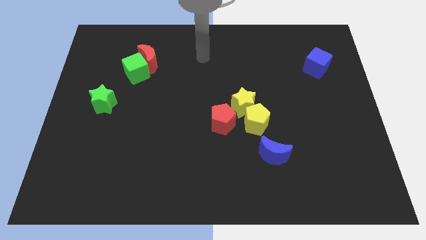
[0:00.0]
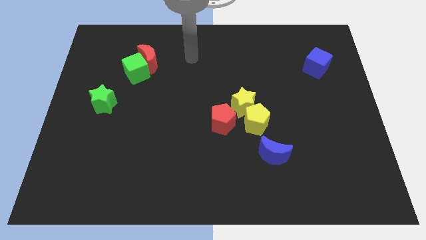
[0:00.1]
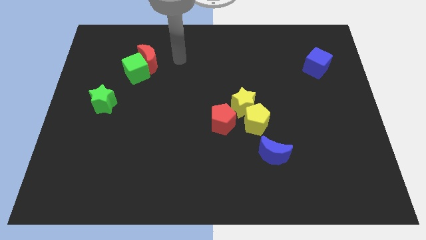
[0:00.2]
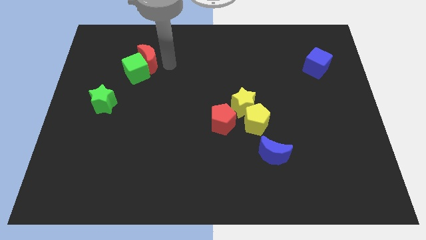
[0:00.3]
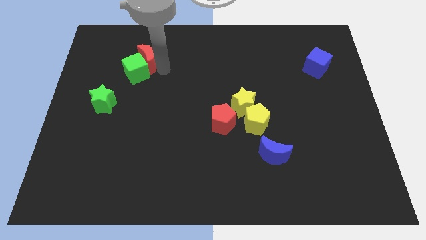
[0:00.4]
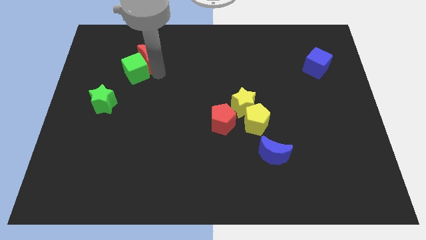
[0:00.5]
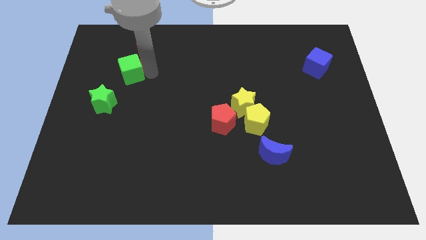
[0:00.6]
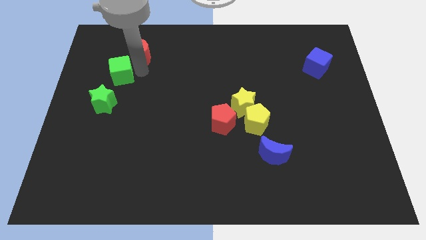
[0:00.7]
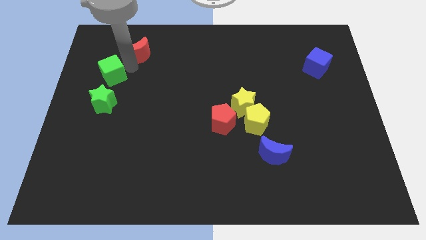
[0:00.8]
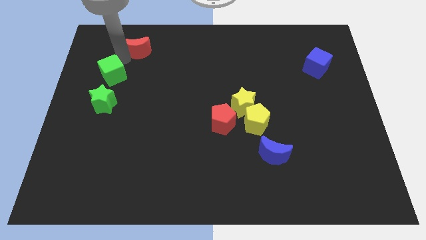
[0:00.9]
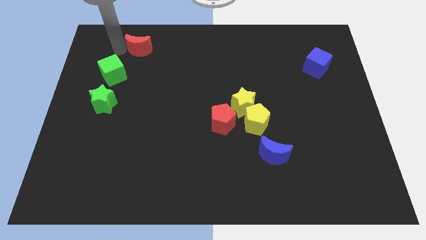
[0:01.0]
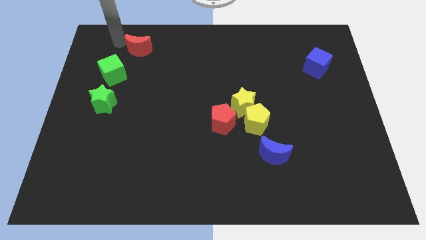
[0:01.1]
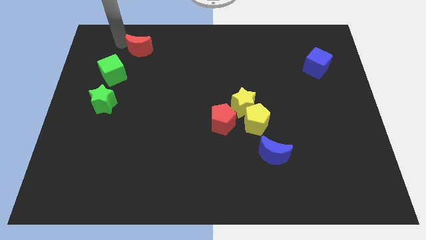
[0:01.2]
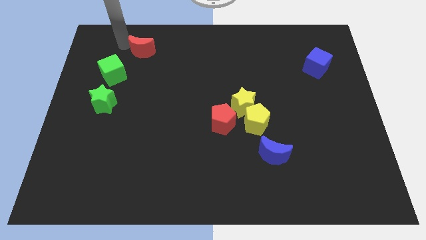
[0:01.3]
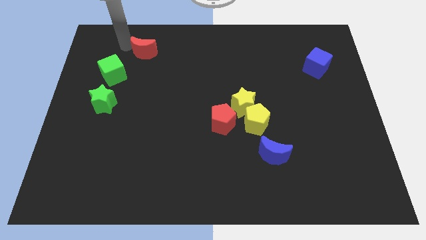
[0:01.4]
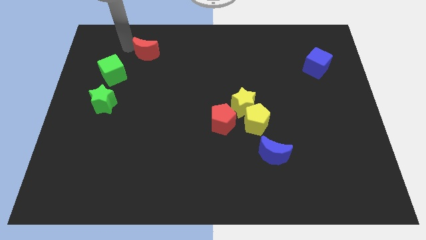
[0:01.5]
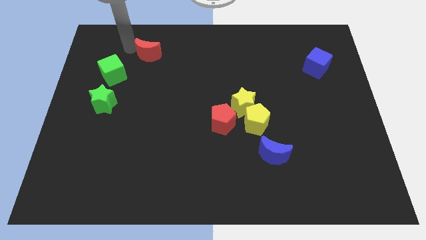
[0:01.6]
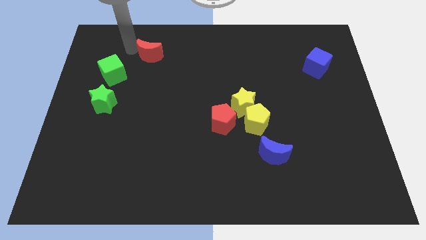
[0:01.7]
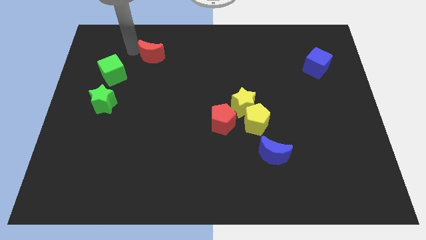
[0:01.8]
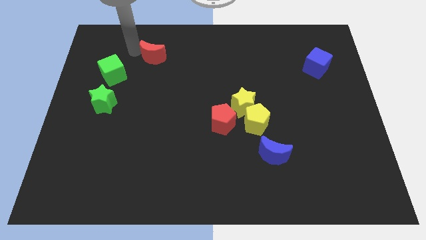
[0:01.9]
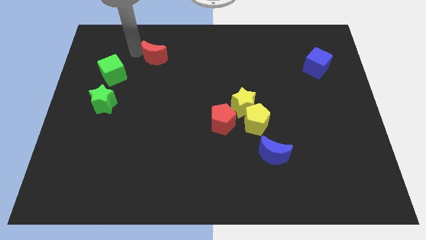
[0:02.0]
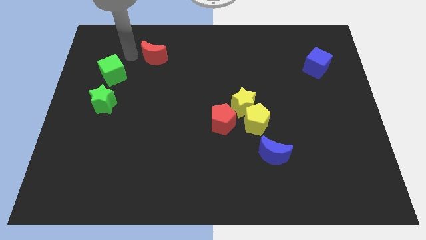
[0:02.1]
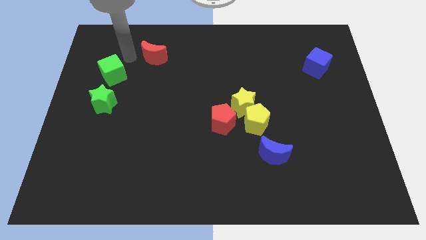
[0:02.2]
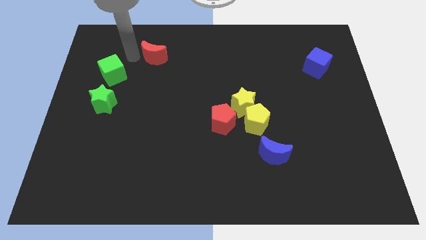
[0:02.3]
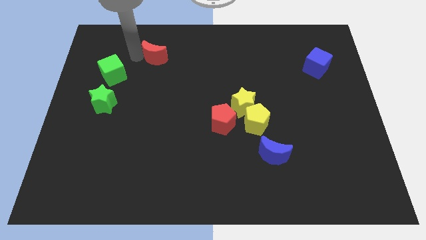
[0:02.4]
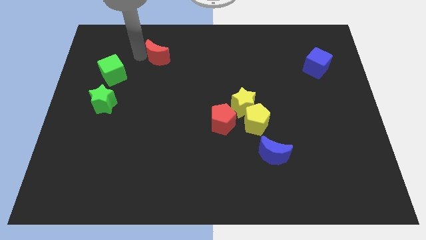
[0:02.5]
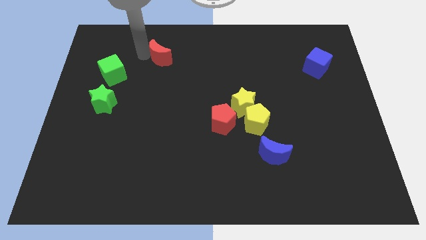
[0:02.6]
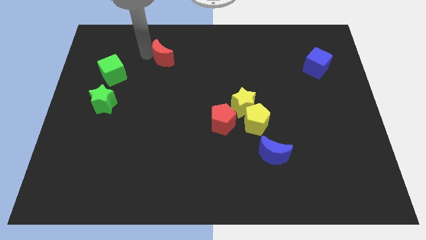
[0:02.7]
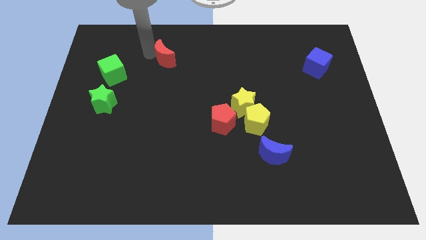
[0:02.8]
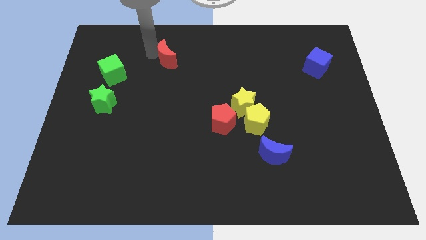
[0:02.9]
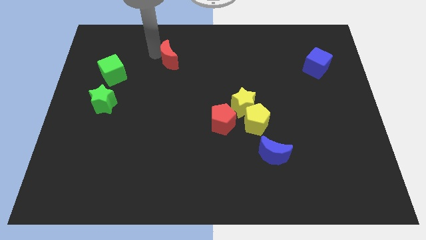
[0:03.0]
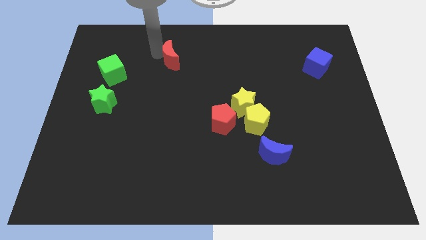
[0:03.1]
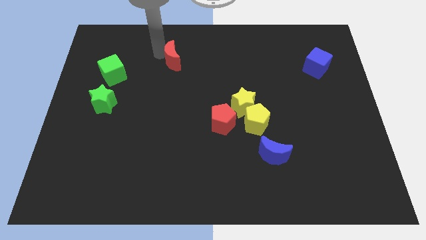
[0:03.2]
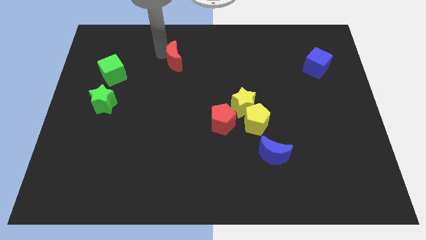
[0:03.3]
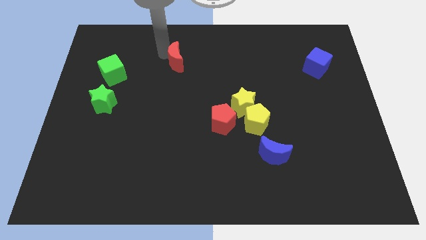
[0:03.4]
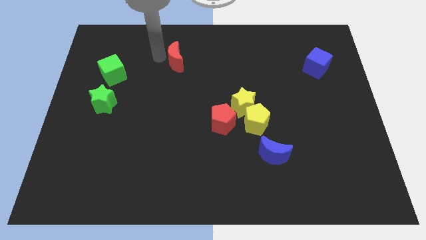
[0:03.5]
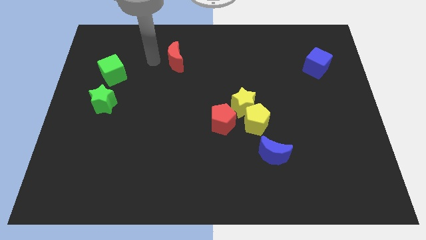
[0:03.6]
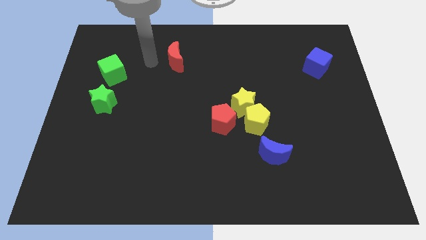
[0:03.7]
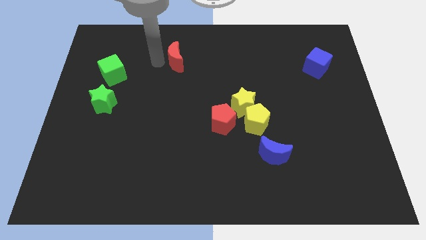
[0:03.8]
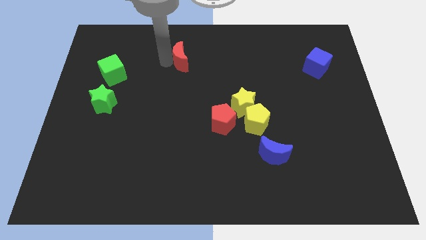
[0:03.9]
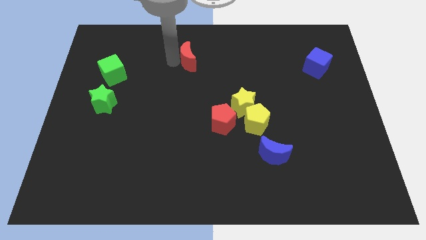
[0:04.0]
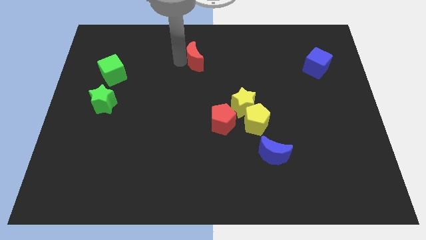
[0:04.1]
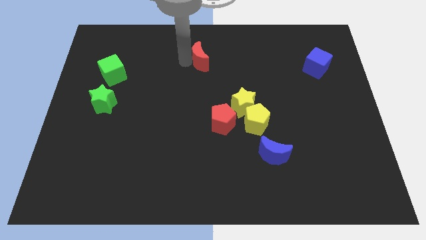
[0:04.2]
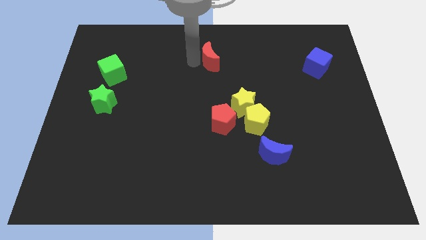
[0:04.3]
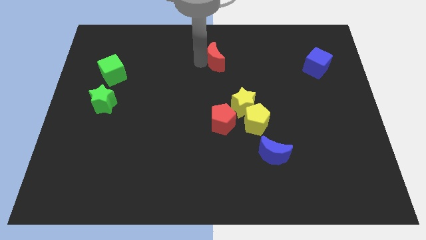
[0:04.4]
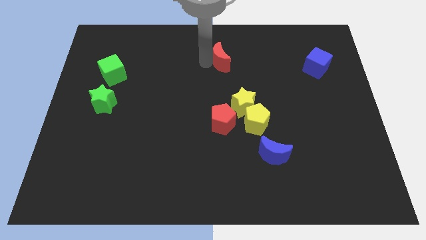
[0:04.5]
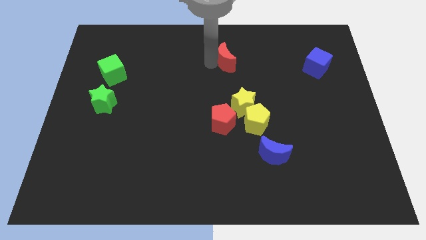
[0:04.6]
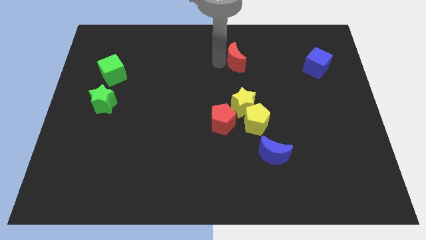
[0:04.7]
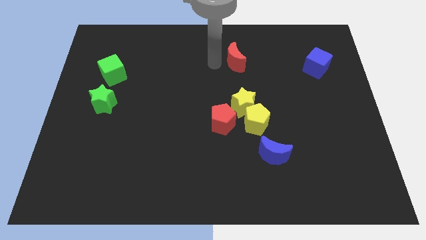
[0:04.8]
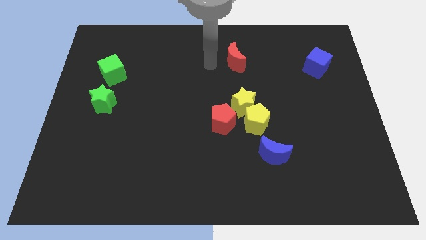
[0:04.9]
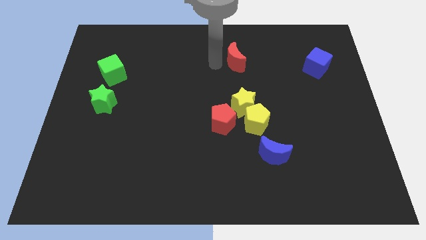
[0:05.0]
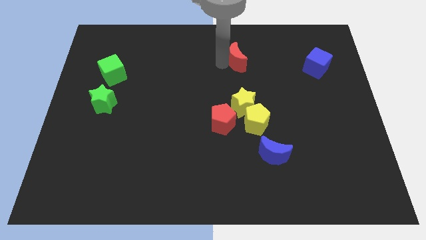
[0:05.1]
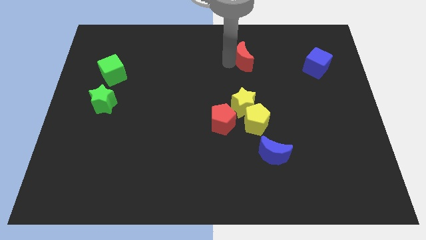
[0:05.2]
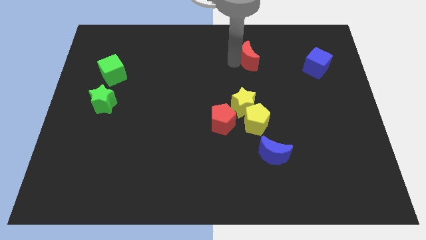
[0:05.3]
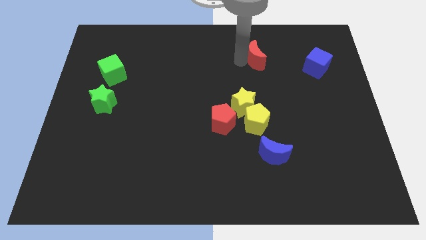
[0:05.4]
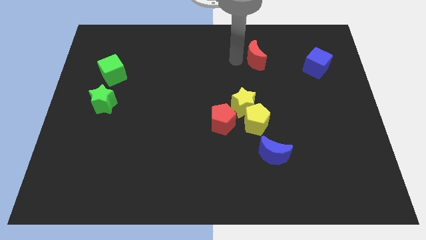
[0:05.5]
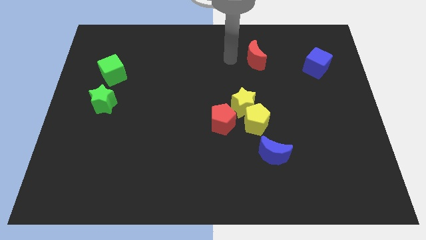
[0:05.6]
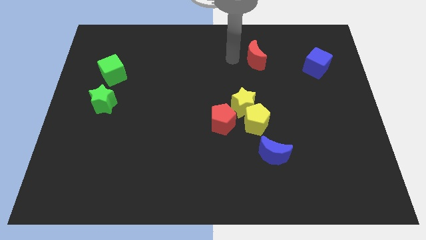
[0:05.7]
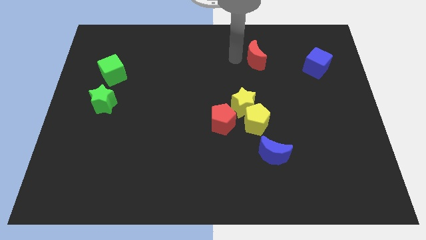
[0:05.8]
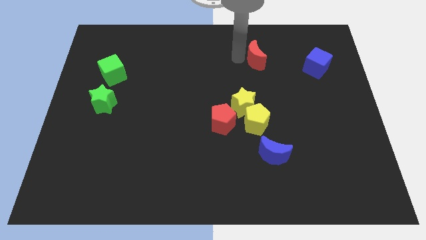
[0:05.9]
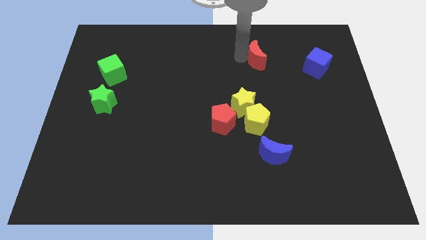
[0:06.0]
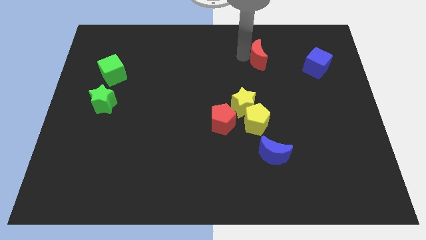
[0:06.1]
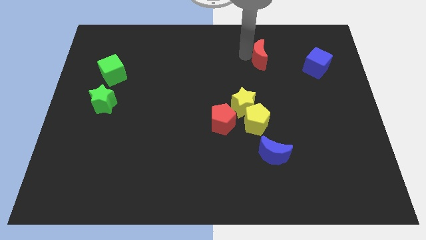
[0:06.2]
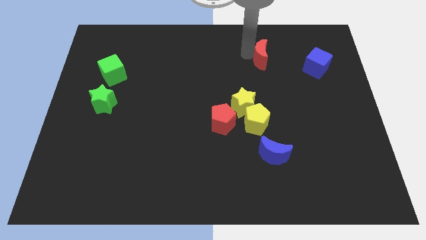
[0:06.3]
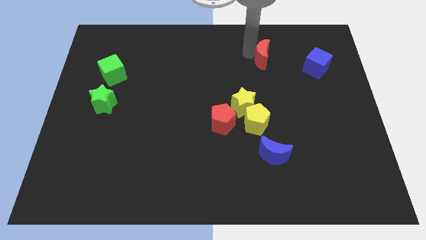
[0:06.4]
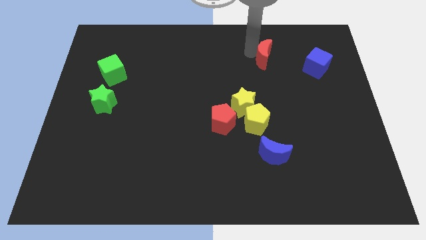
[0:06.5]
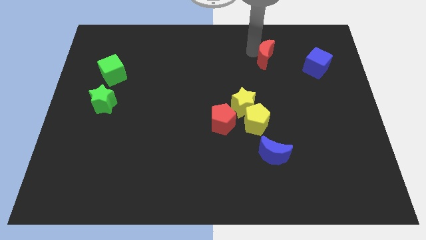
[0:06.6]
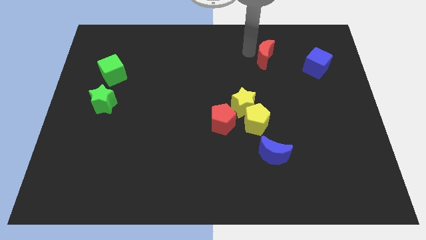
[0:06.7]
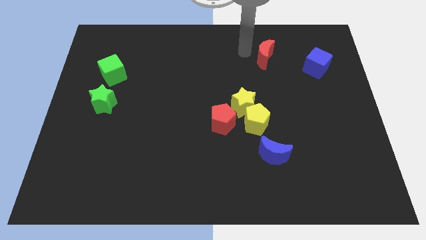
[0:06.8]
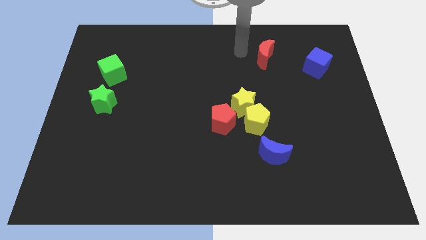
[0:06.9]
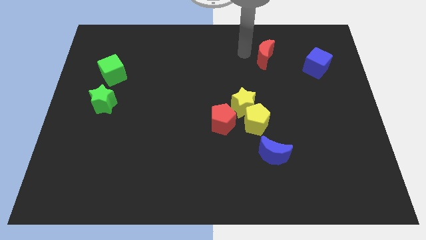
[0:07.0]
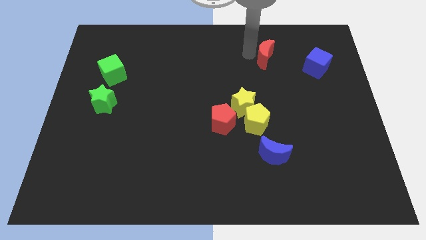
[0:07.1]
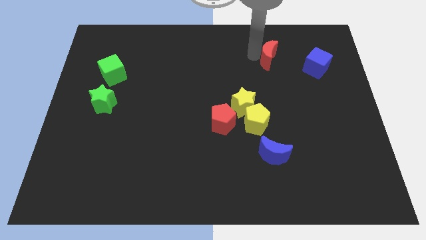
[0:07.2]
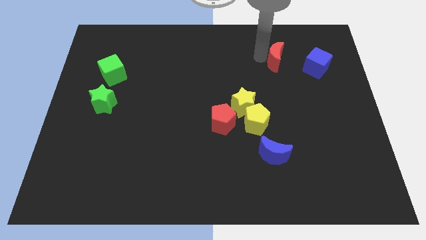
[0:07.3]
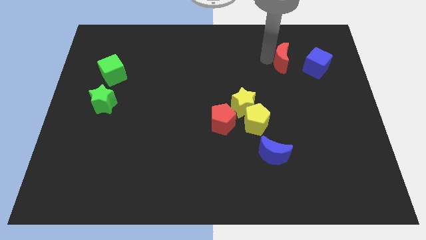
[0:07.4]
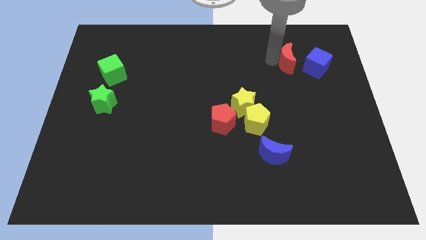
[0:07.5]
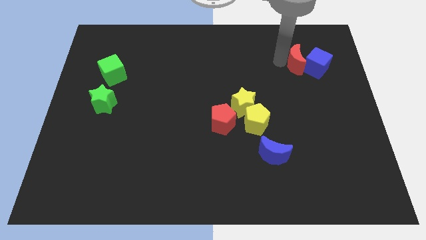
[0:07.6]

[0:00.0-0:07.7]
push the red moon close to the blue cube
